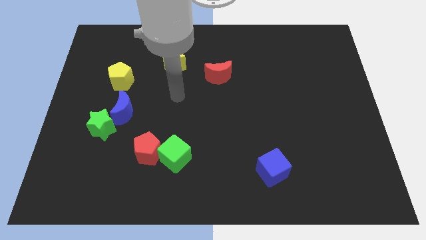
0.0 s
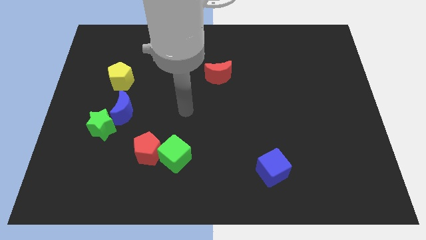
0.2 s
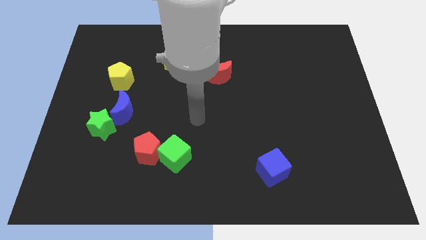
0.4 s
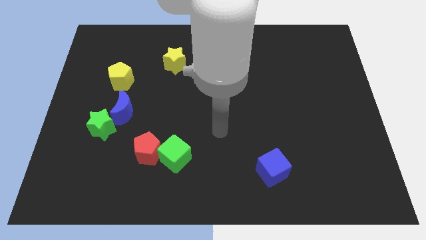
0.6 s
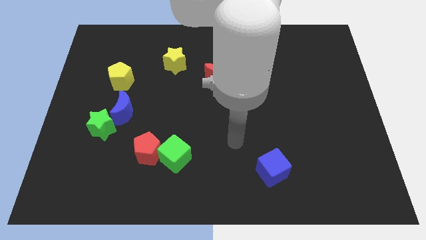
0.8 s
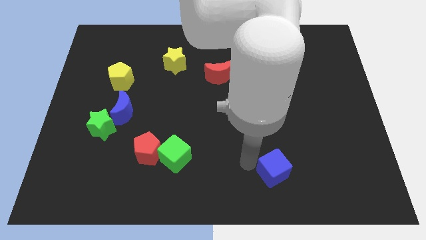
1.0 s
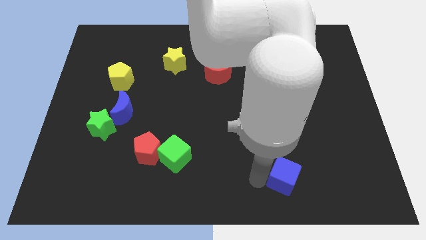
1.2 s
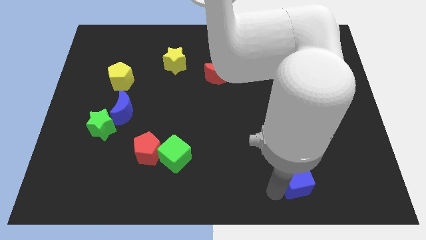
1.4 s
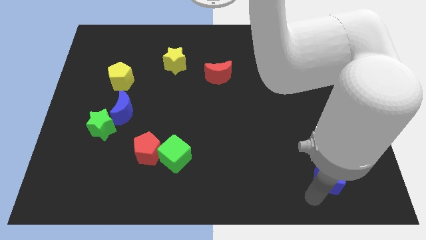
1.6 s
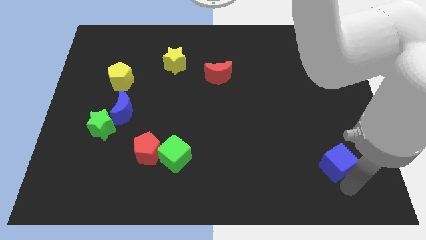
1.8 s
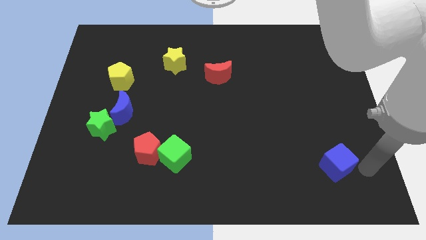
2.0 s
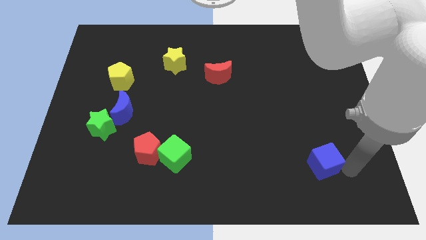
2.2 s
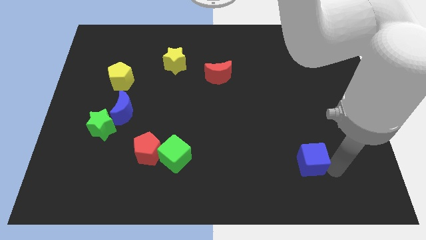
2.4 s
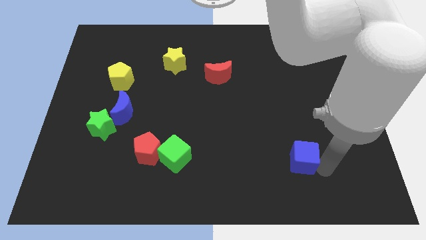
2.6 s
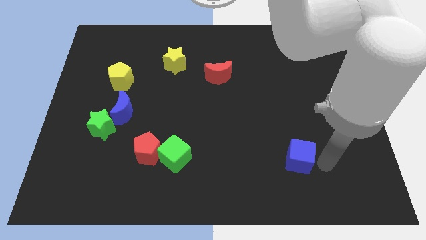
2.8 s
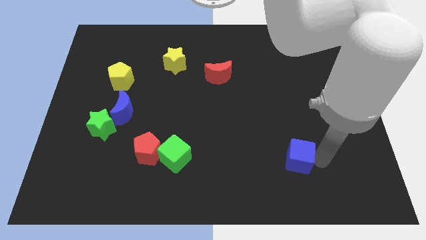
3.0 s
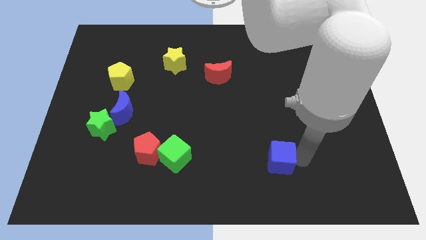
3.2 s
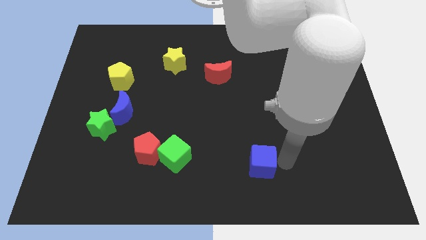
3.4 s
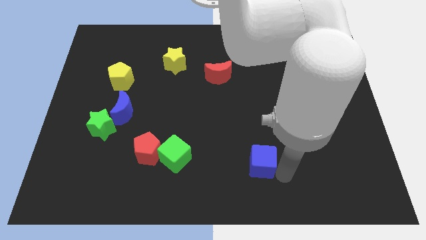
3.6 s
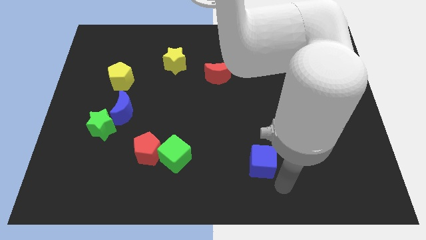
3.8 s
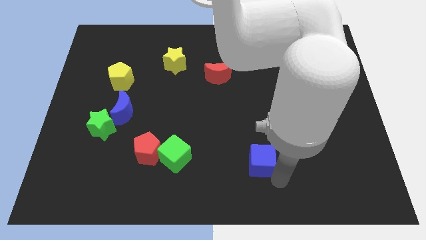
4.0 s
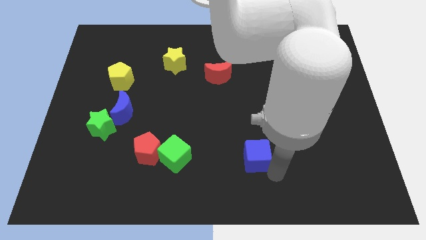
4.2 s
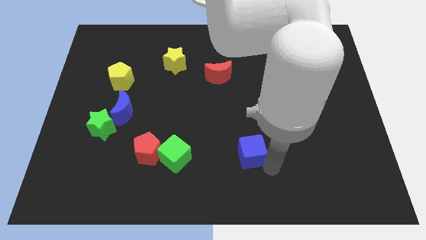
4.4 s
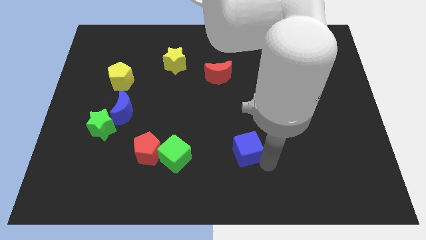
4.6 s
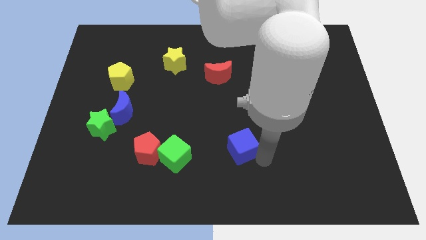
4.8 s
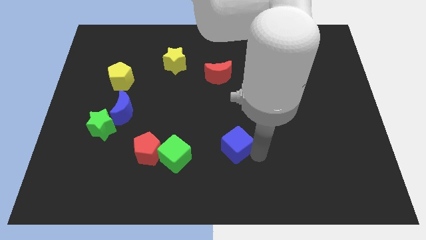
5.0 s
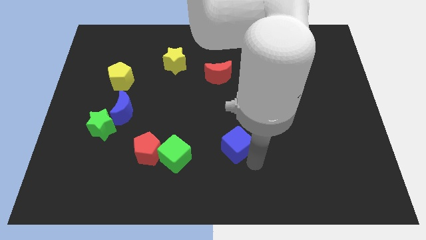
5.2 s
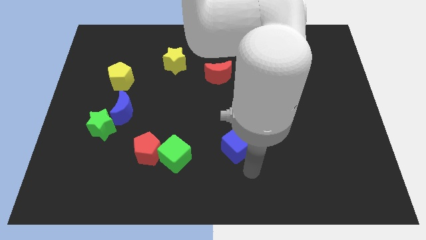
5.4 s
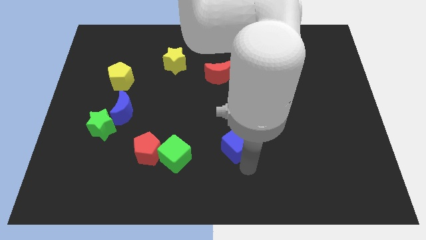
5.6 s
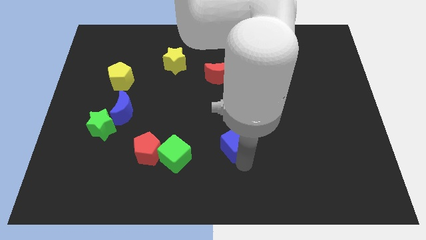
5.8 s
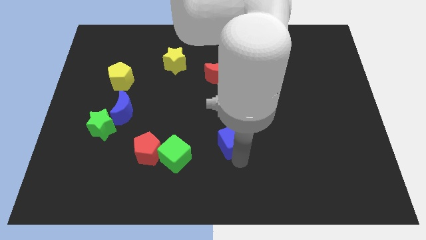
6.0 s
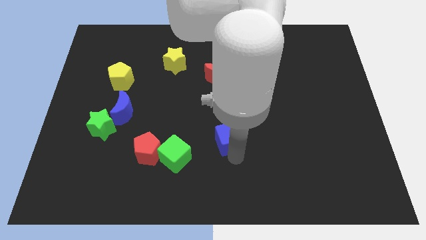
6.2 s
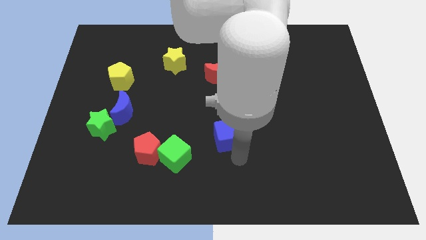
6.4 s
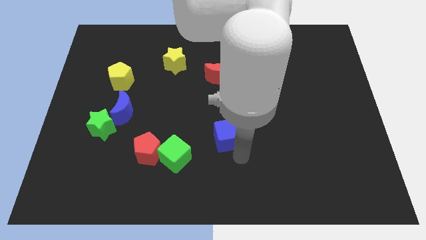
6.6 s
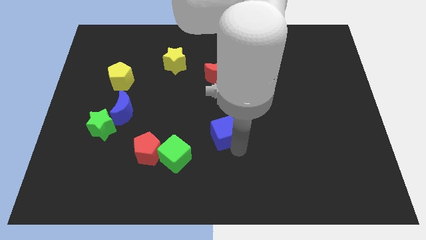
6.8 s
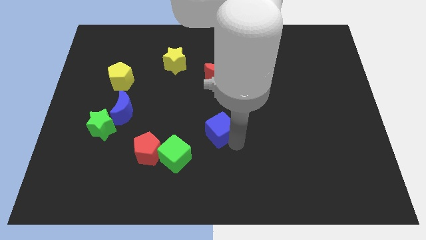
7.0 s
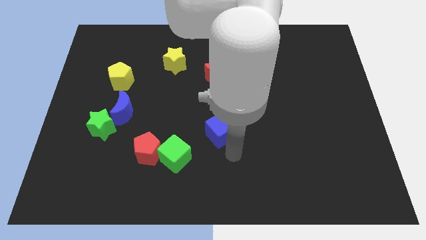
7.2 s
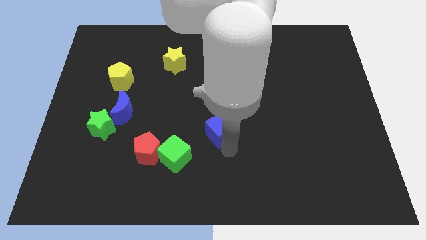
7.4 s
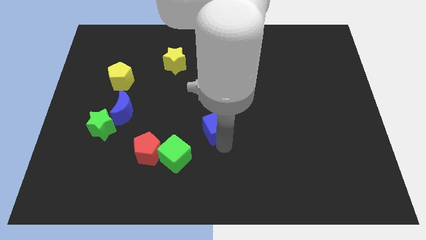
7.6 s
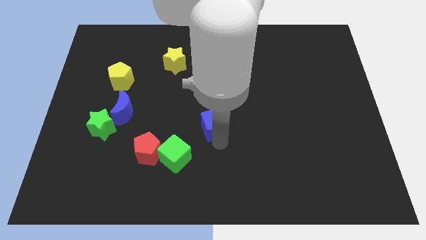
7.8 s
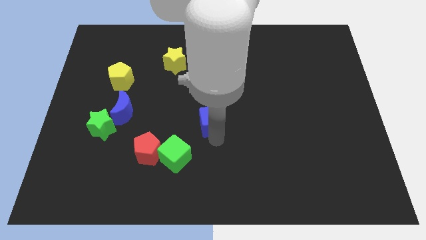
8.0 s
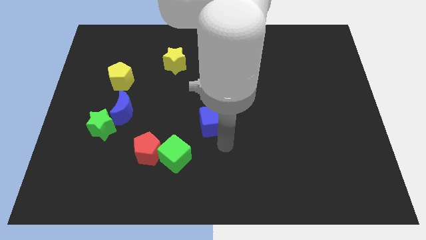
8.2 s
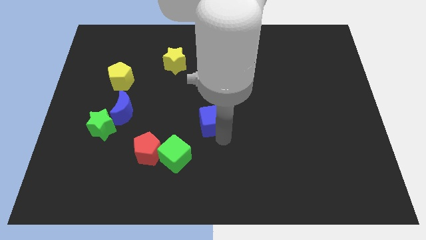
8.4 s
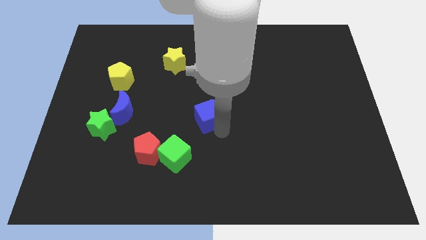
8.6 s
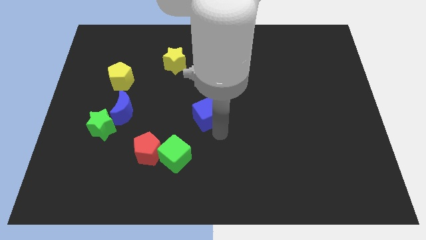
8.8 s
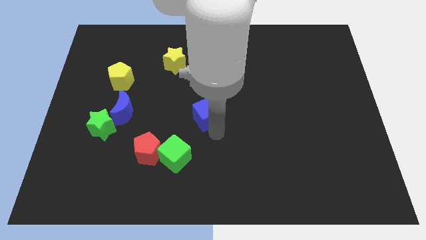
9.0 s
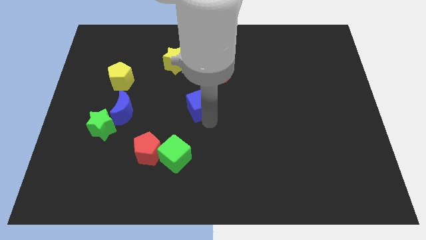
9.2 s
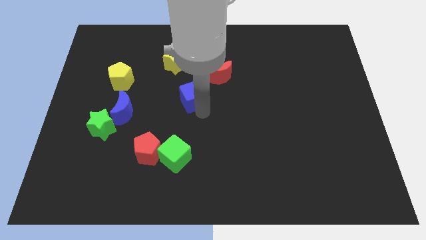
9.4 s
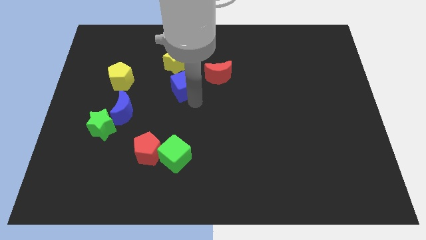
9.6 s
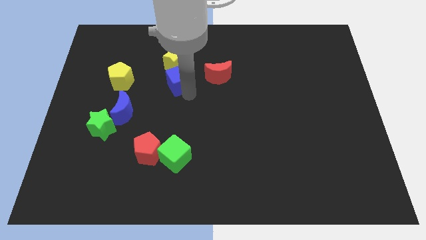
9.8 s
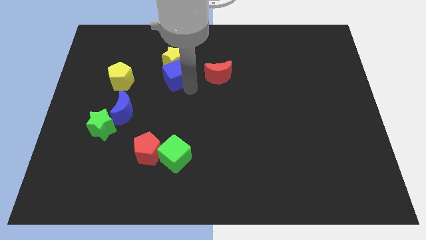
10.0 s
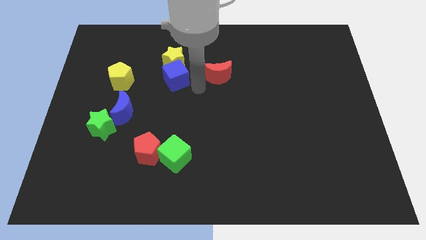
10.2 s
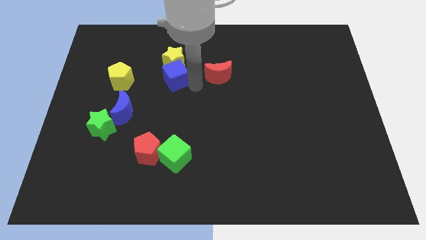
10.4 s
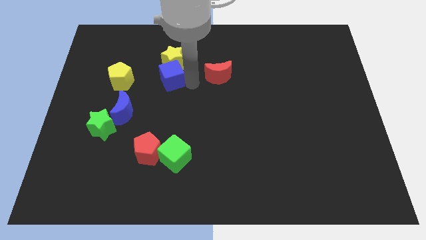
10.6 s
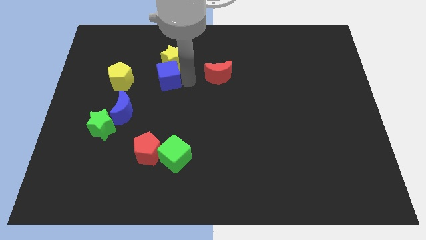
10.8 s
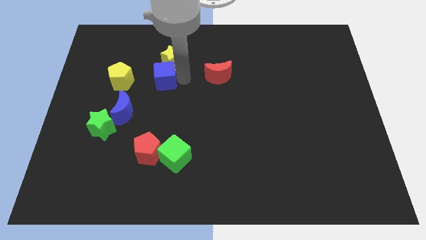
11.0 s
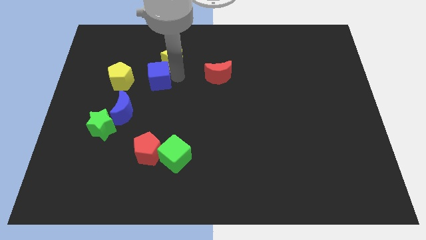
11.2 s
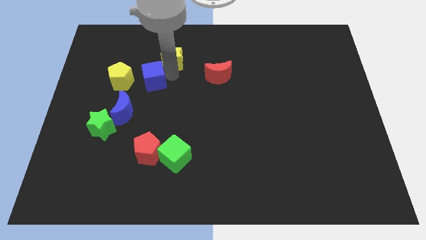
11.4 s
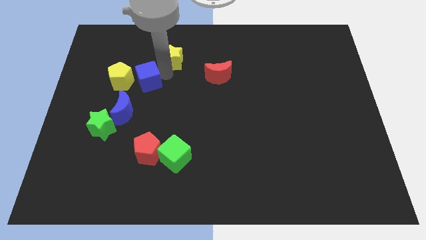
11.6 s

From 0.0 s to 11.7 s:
push the blue cube to the top right of the yellow pentagon

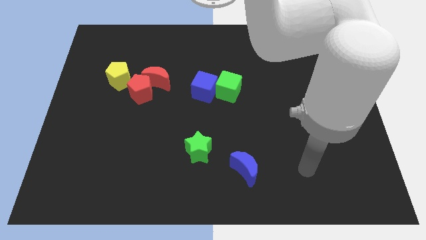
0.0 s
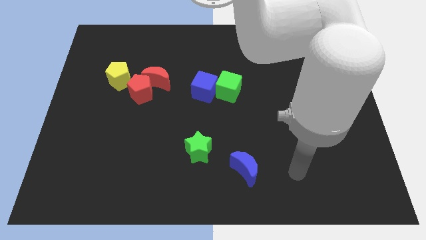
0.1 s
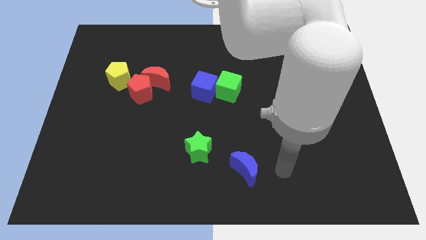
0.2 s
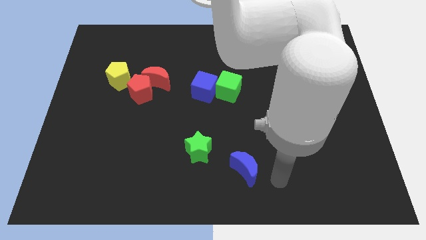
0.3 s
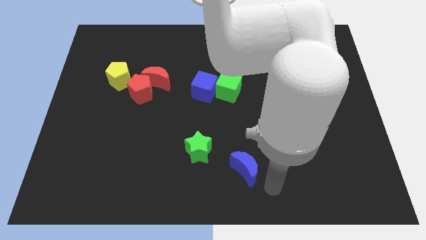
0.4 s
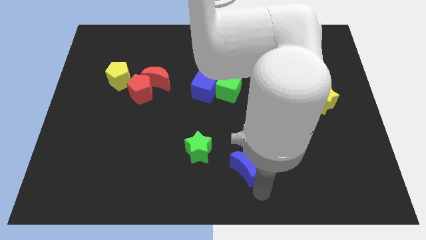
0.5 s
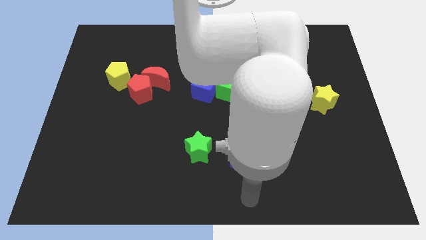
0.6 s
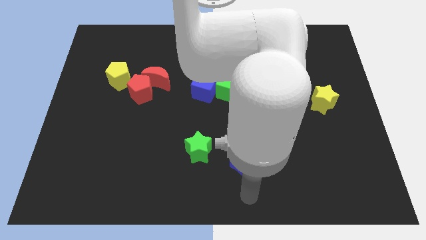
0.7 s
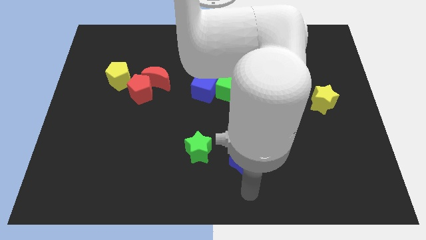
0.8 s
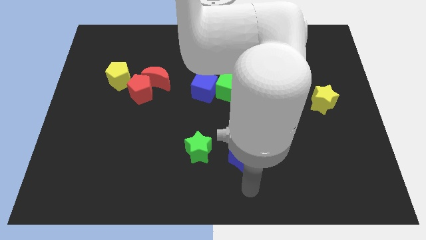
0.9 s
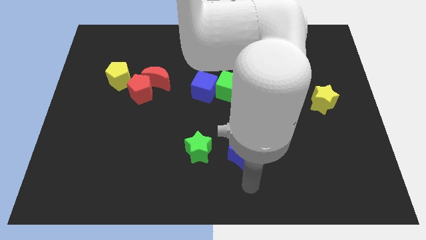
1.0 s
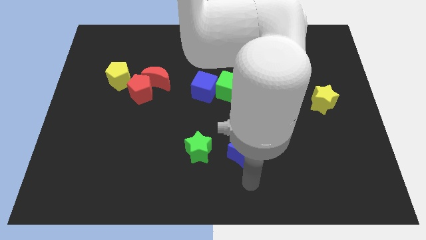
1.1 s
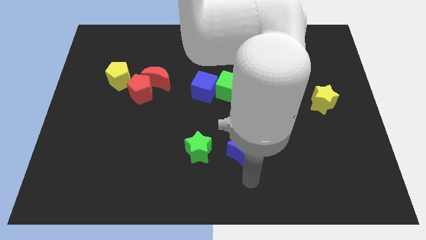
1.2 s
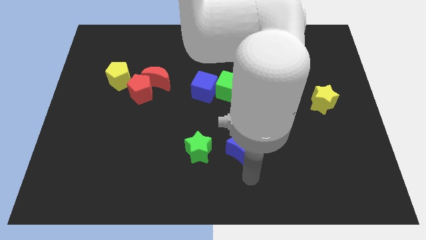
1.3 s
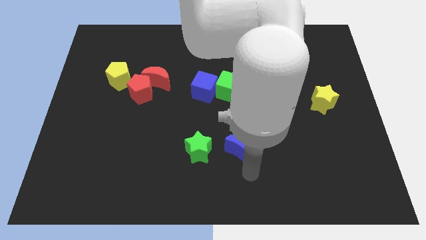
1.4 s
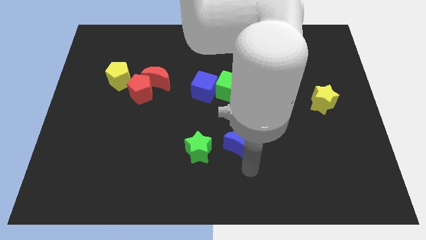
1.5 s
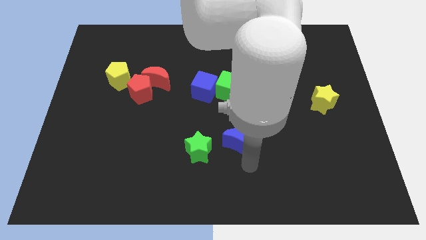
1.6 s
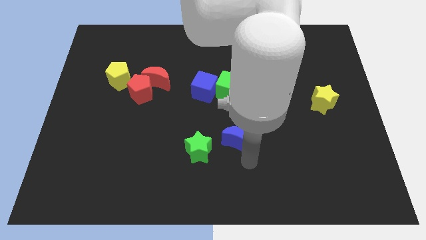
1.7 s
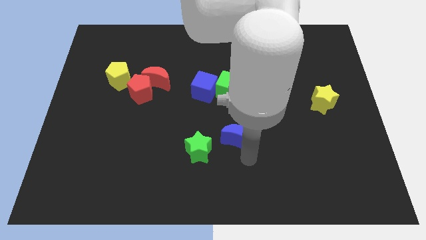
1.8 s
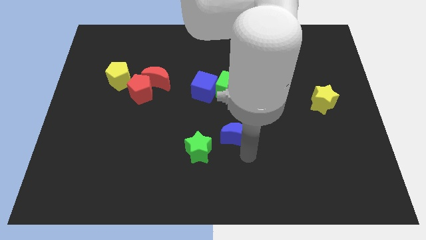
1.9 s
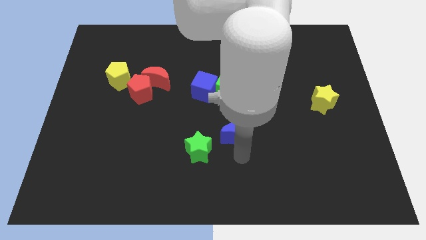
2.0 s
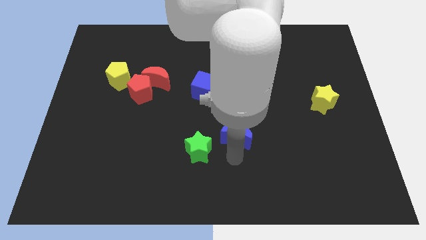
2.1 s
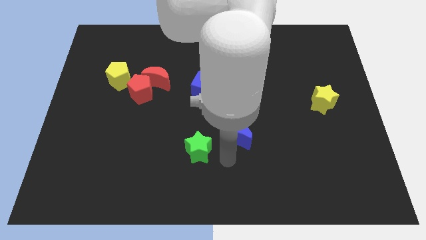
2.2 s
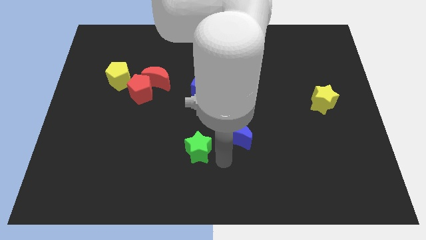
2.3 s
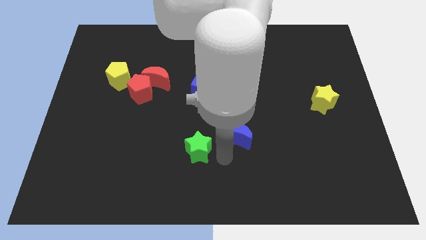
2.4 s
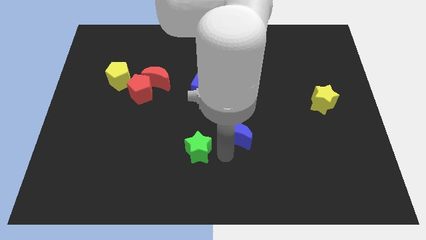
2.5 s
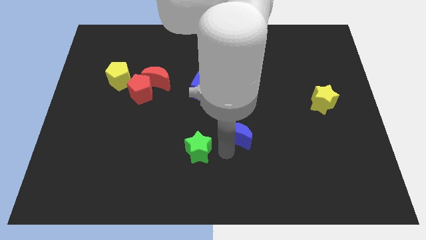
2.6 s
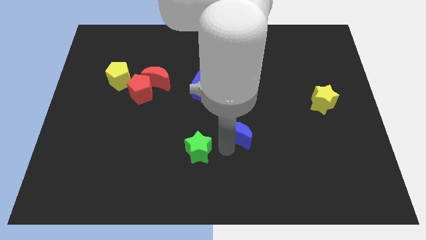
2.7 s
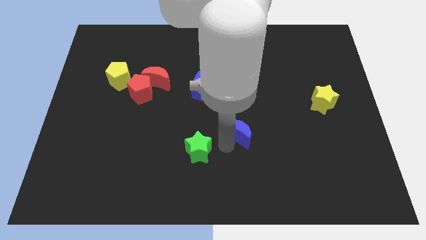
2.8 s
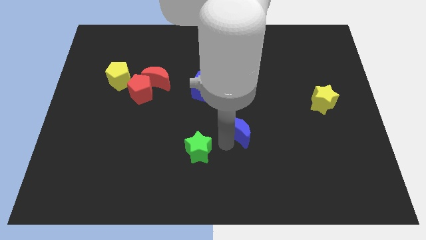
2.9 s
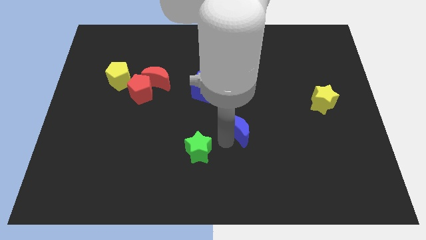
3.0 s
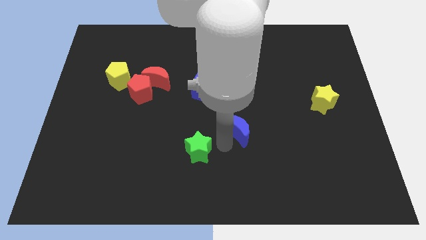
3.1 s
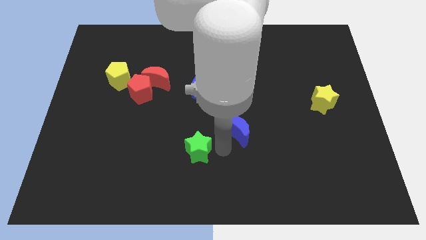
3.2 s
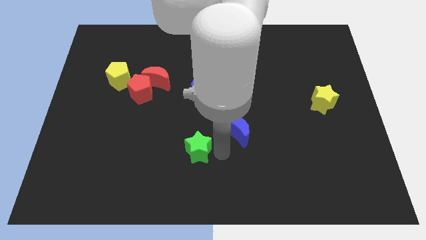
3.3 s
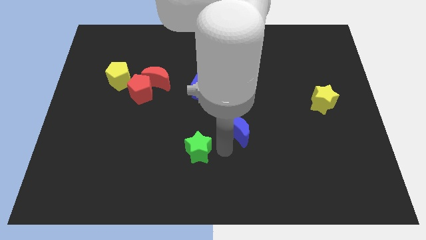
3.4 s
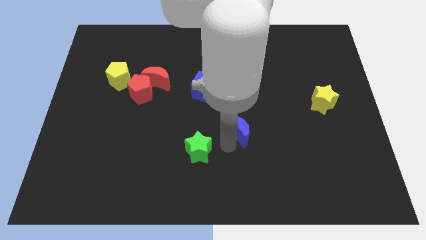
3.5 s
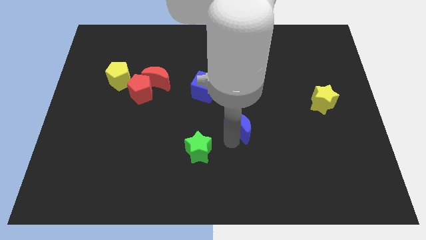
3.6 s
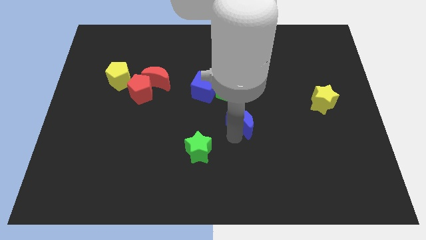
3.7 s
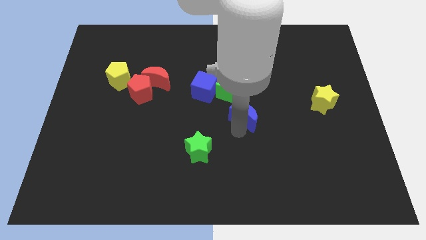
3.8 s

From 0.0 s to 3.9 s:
slide the blue moon diagonally down and to the right of the green cube
